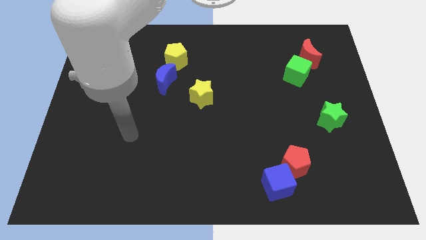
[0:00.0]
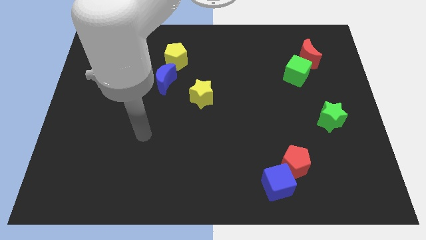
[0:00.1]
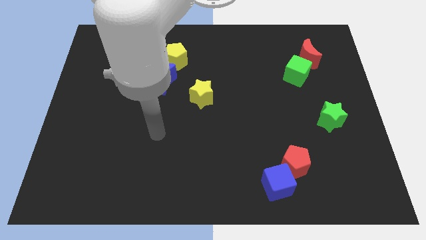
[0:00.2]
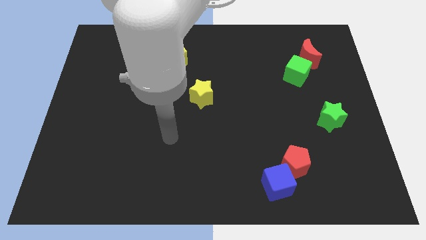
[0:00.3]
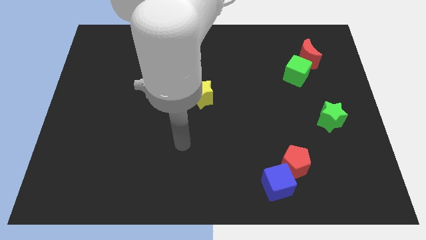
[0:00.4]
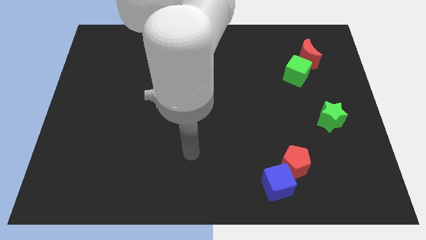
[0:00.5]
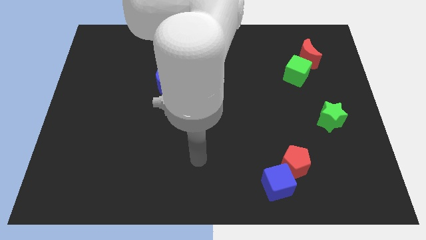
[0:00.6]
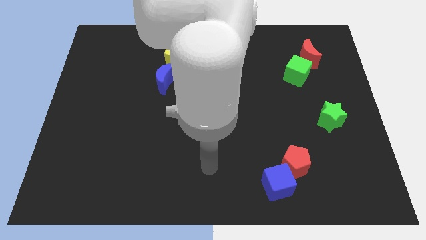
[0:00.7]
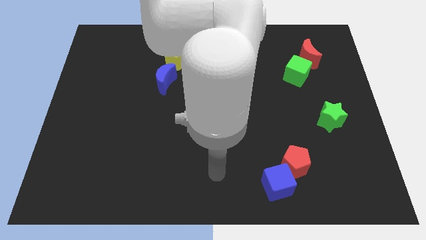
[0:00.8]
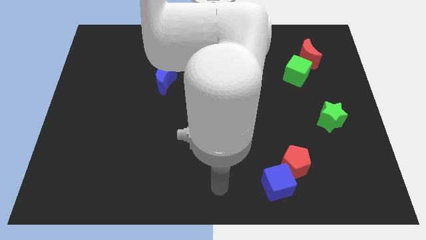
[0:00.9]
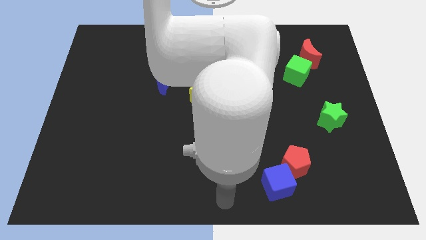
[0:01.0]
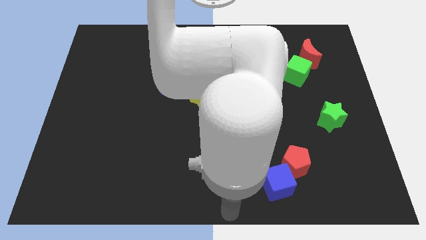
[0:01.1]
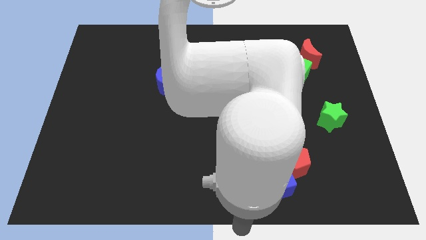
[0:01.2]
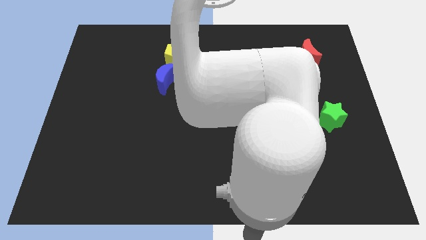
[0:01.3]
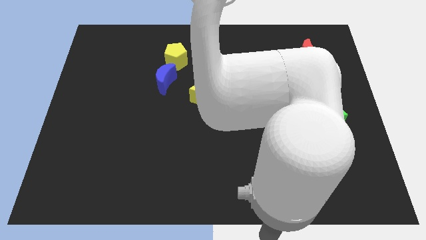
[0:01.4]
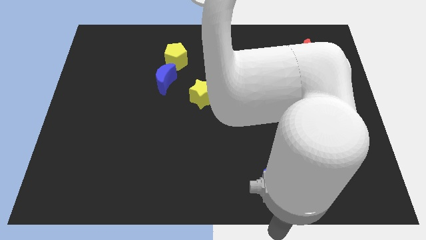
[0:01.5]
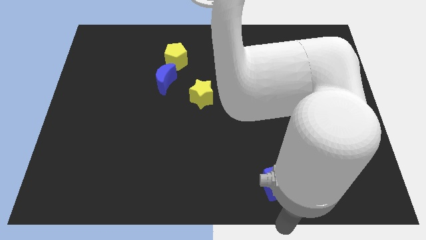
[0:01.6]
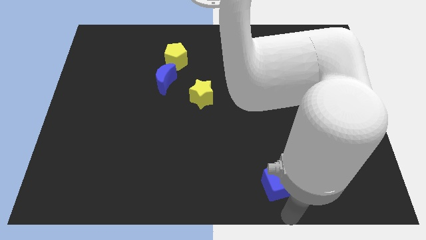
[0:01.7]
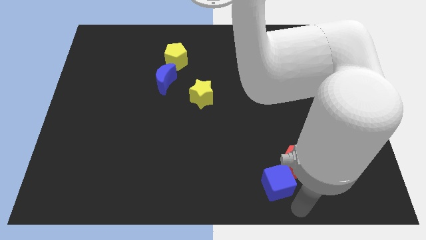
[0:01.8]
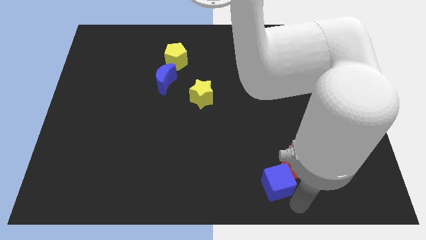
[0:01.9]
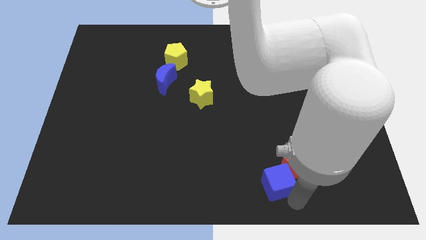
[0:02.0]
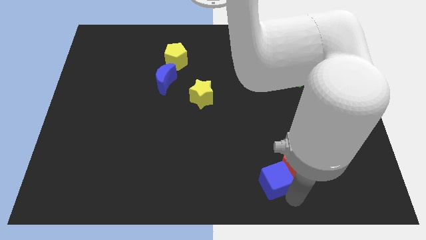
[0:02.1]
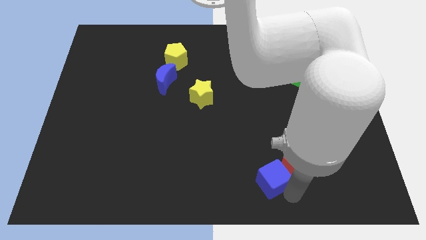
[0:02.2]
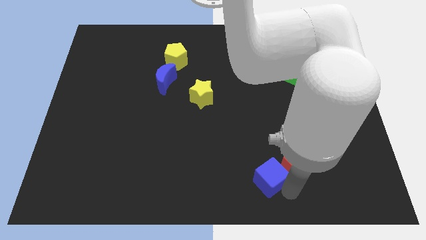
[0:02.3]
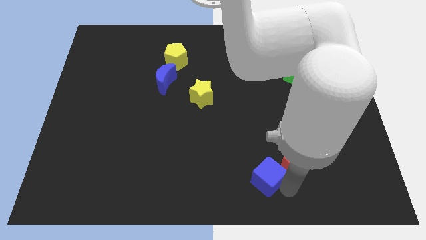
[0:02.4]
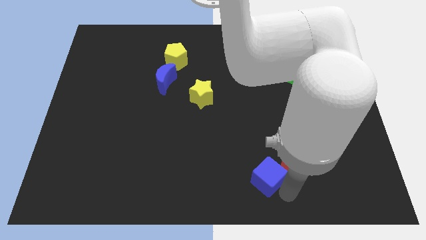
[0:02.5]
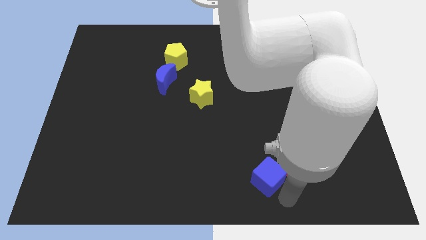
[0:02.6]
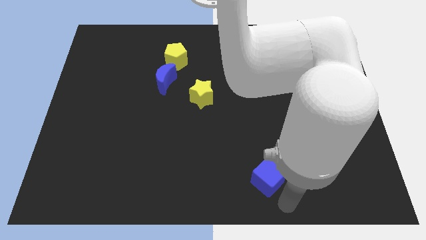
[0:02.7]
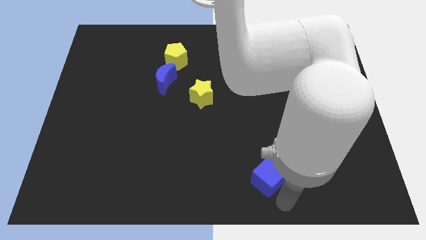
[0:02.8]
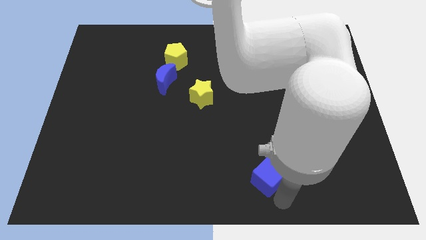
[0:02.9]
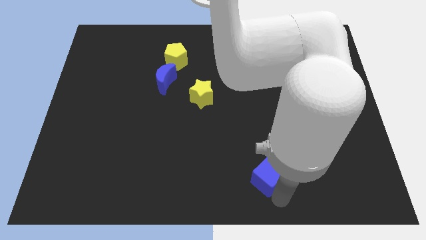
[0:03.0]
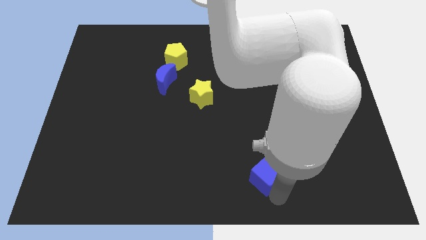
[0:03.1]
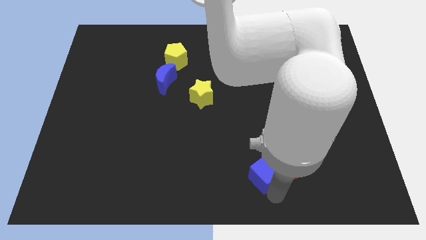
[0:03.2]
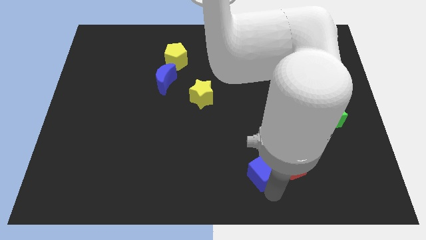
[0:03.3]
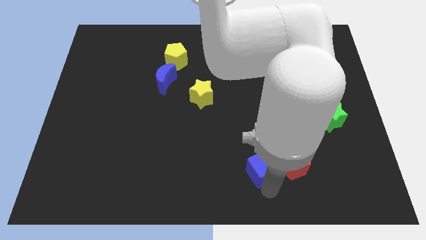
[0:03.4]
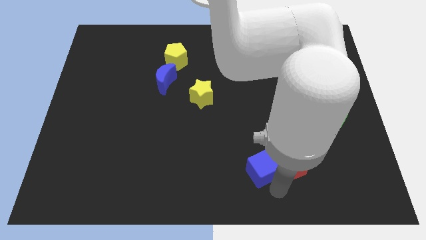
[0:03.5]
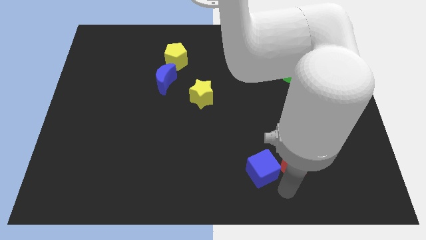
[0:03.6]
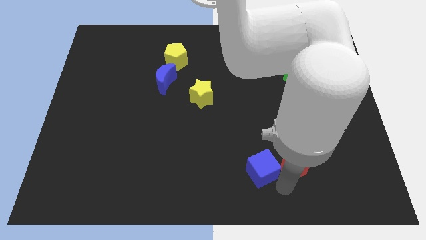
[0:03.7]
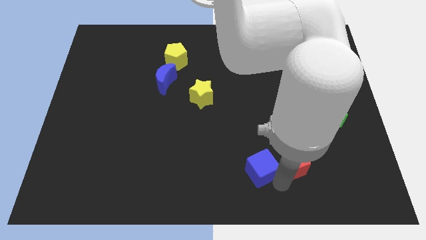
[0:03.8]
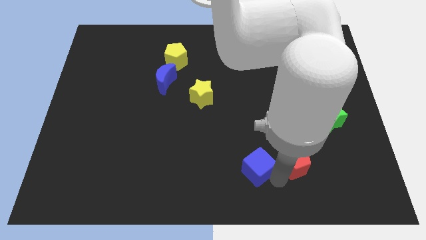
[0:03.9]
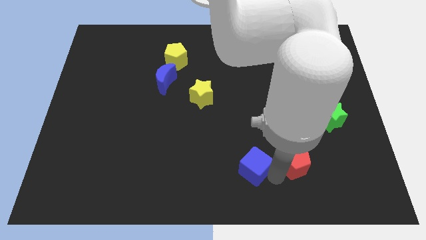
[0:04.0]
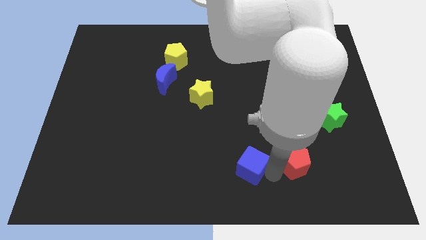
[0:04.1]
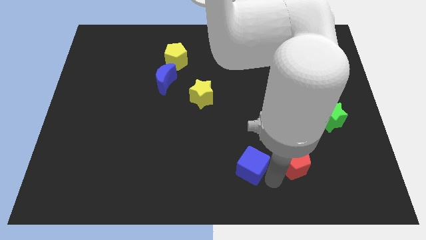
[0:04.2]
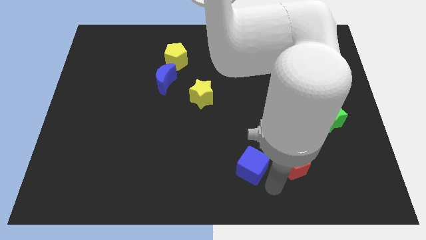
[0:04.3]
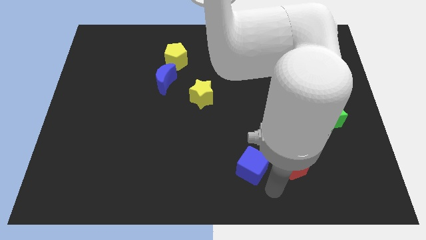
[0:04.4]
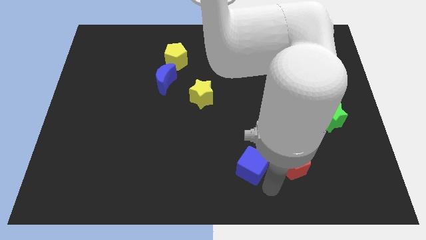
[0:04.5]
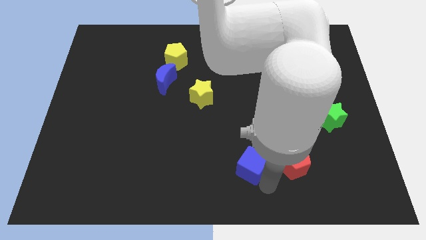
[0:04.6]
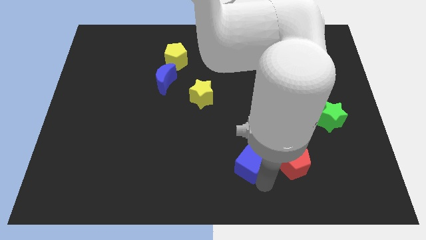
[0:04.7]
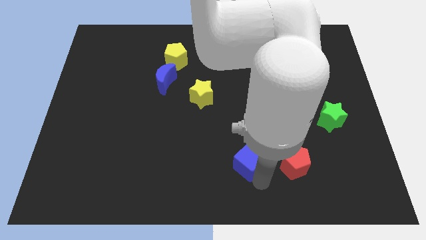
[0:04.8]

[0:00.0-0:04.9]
push the blue cube up and to the left diagonally a little

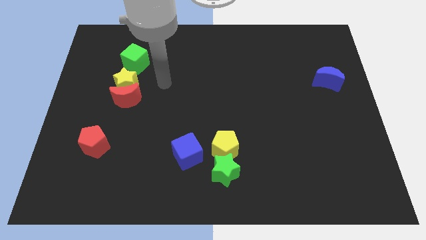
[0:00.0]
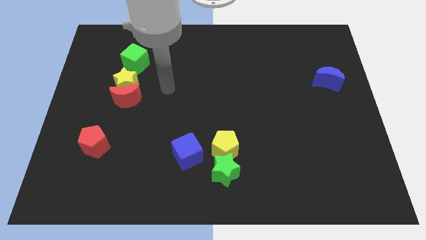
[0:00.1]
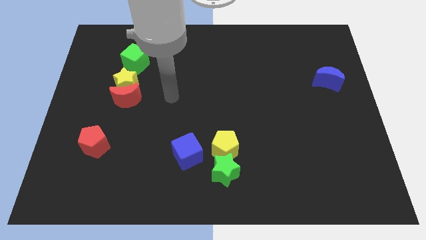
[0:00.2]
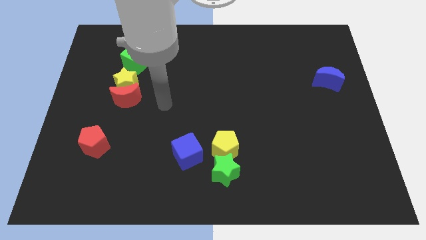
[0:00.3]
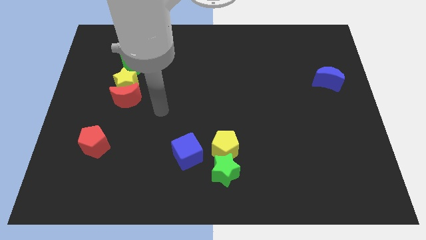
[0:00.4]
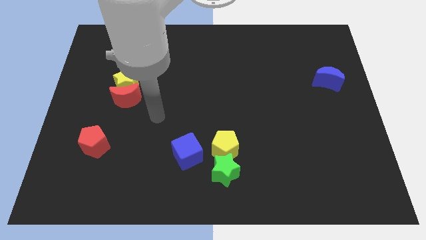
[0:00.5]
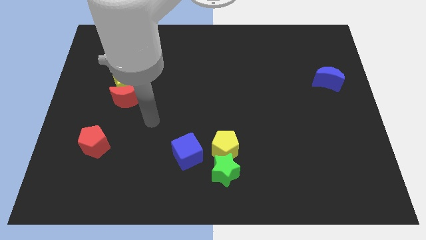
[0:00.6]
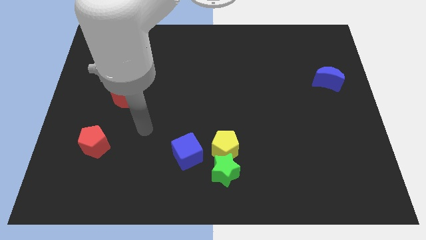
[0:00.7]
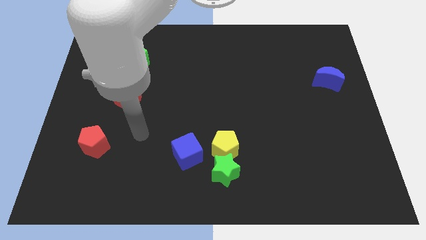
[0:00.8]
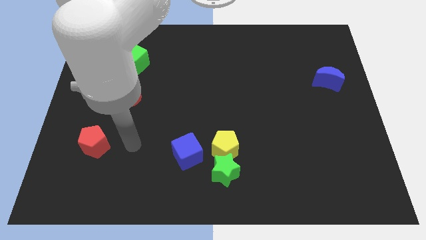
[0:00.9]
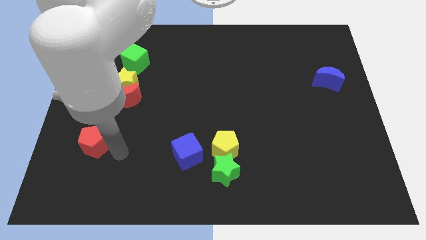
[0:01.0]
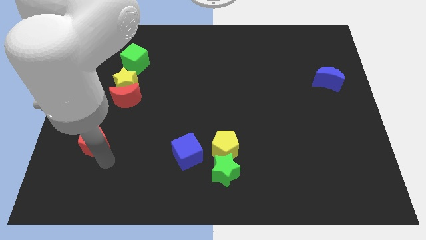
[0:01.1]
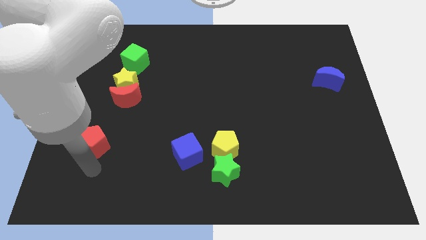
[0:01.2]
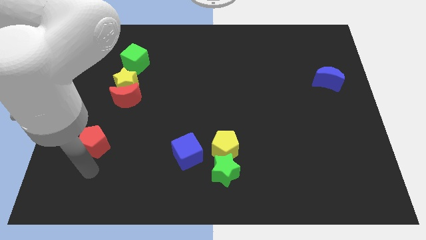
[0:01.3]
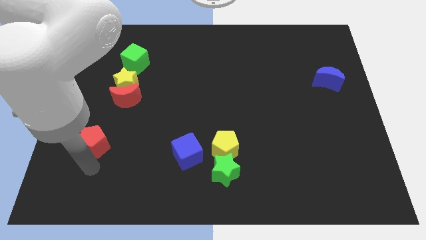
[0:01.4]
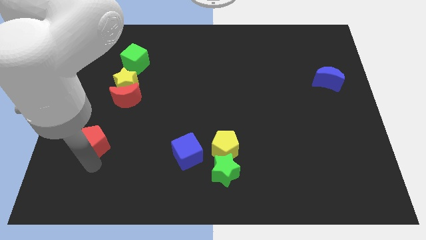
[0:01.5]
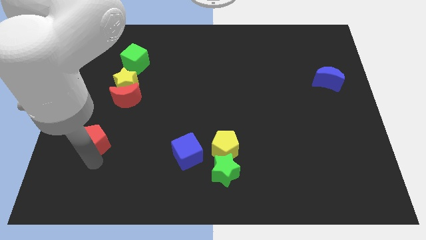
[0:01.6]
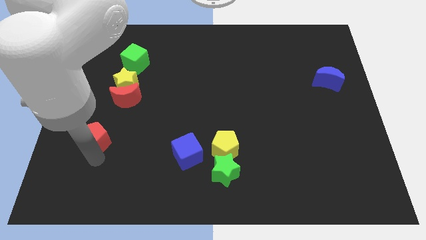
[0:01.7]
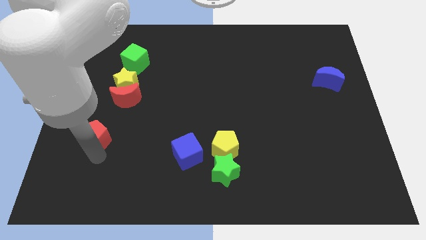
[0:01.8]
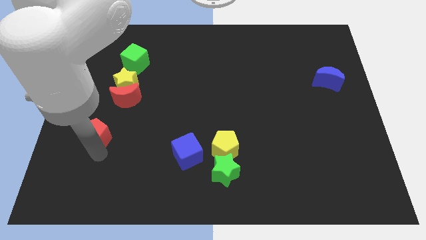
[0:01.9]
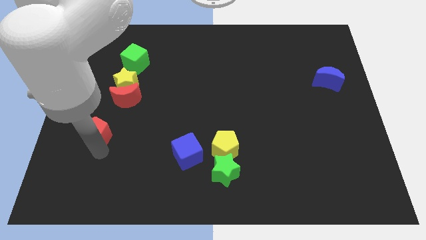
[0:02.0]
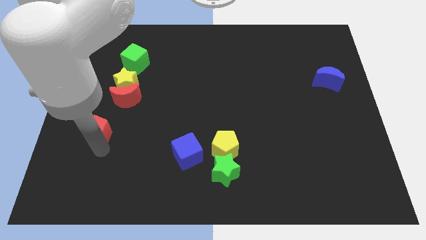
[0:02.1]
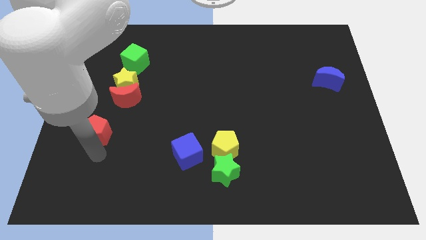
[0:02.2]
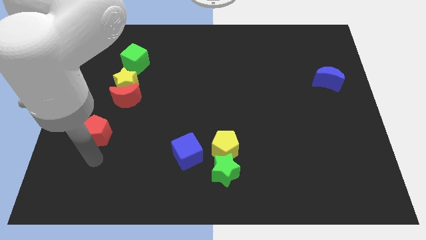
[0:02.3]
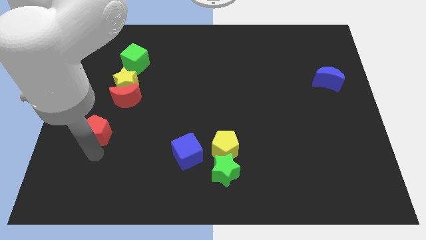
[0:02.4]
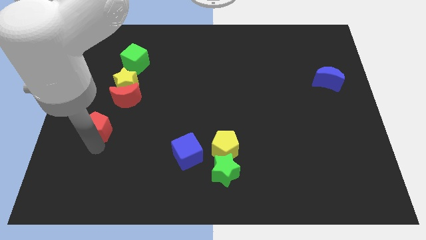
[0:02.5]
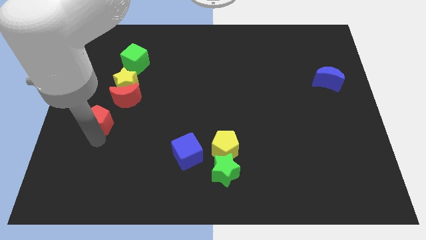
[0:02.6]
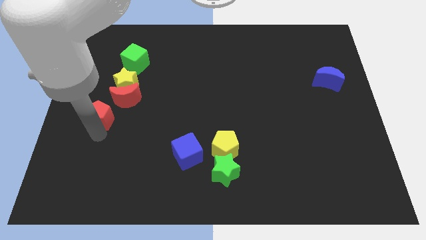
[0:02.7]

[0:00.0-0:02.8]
move the red pentagon slightly up

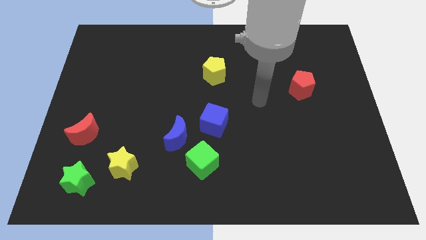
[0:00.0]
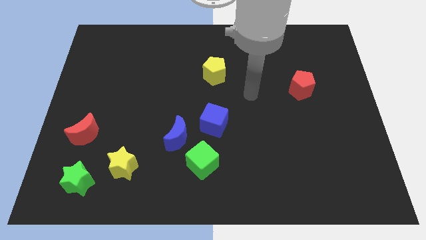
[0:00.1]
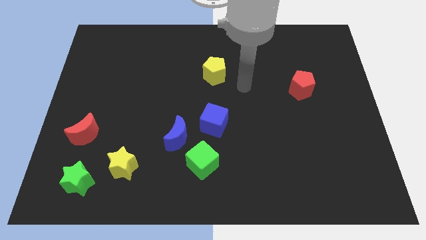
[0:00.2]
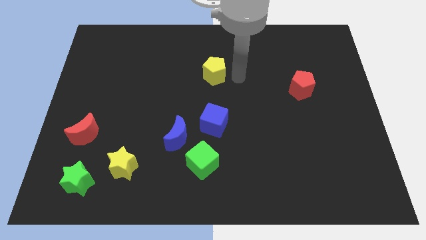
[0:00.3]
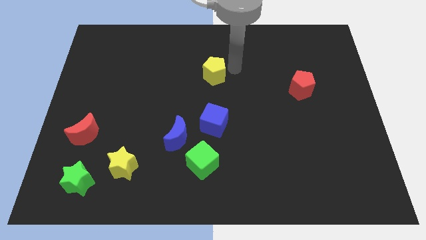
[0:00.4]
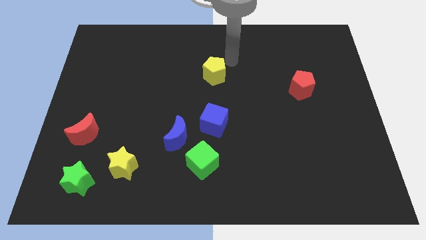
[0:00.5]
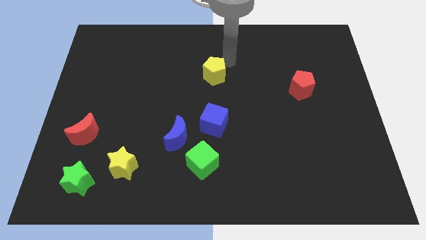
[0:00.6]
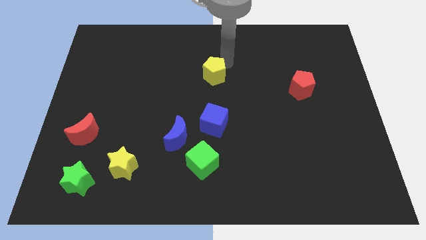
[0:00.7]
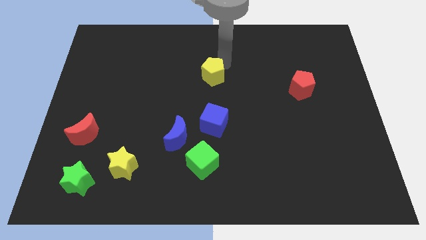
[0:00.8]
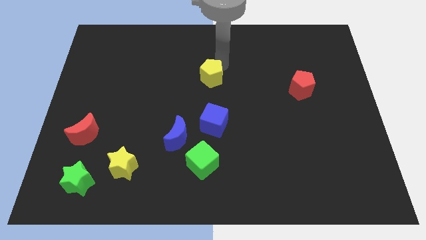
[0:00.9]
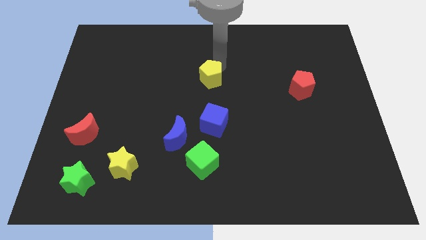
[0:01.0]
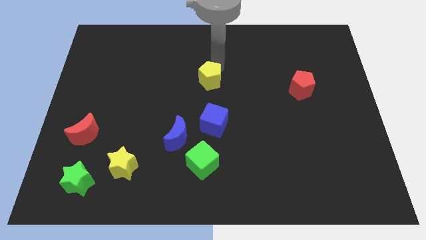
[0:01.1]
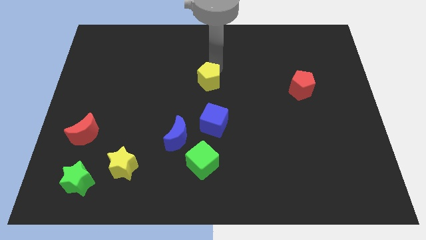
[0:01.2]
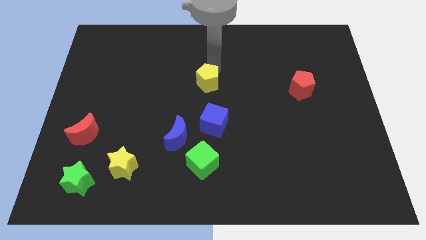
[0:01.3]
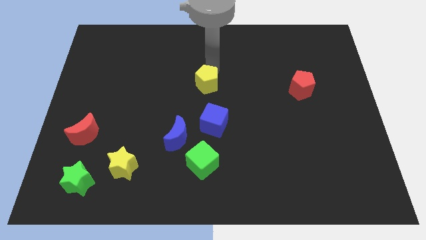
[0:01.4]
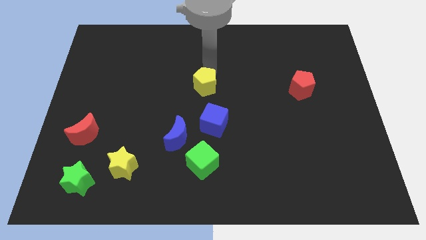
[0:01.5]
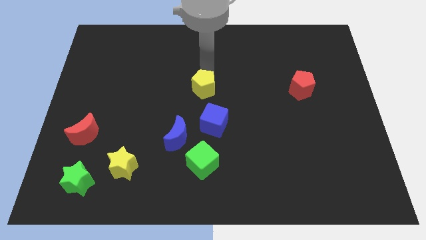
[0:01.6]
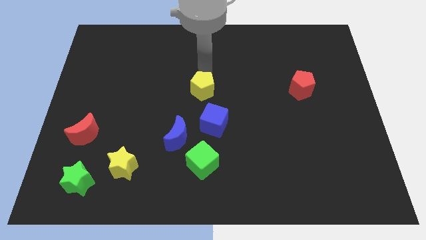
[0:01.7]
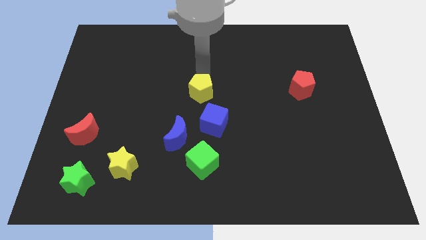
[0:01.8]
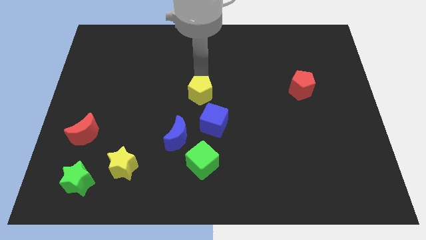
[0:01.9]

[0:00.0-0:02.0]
move the yellow pentagon downwards and then to the left somewhat
